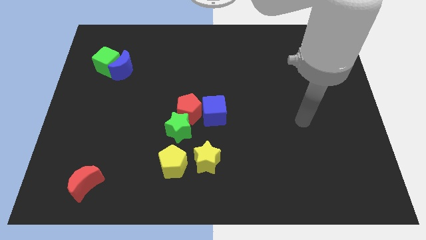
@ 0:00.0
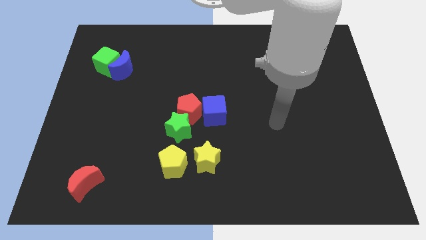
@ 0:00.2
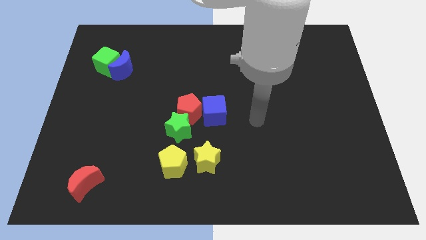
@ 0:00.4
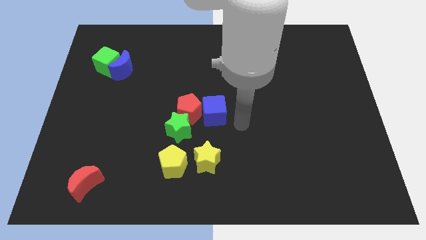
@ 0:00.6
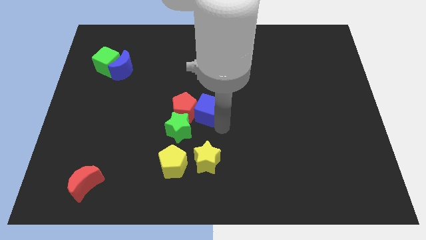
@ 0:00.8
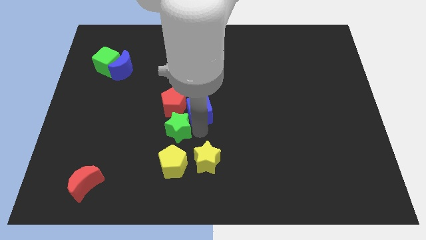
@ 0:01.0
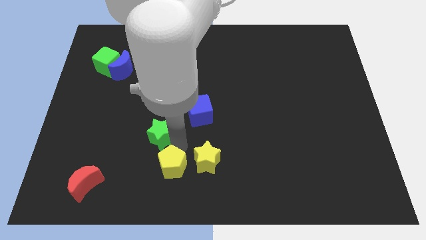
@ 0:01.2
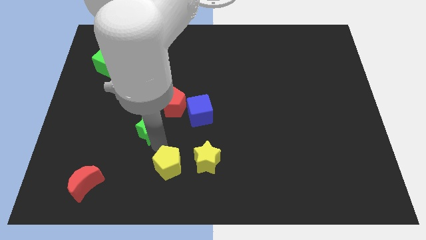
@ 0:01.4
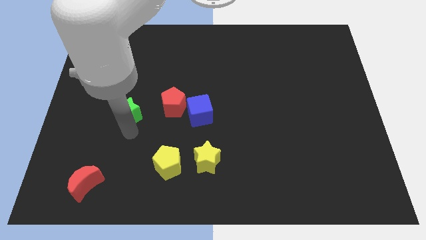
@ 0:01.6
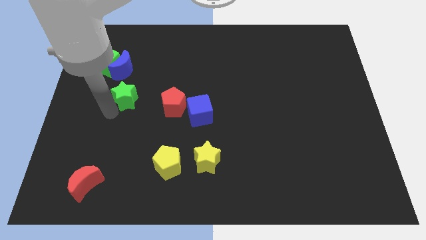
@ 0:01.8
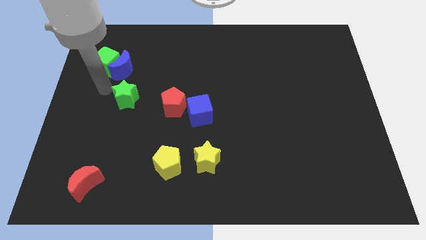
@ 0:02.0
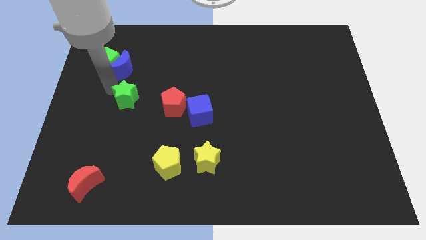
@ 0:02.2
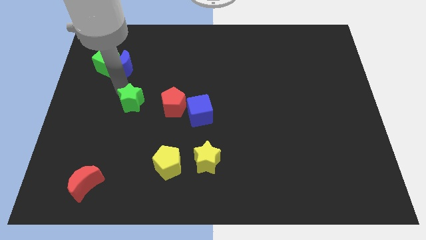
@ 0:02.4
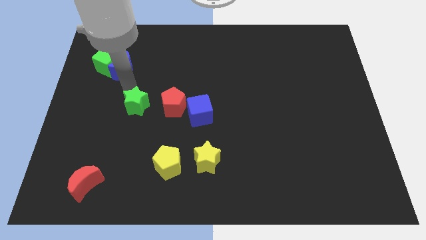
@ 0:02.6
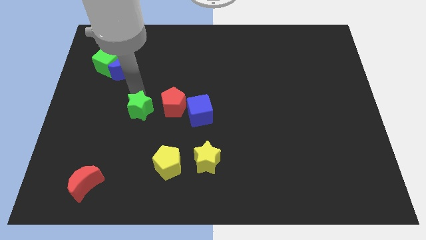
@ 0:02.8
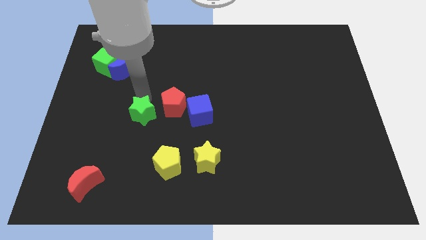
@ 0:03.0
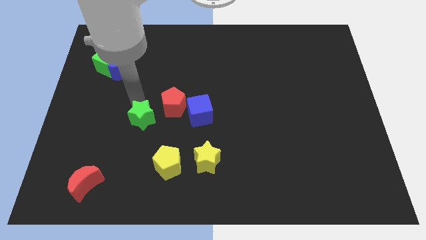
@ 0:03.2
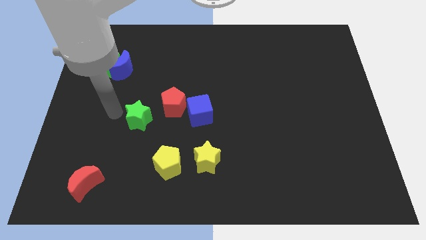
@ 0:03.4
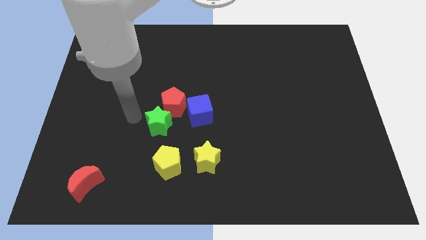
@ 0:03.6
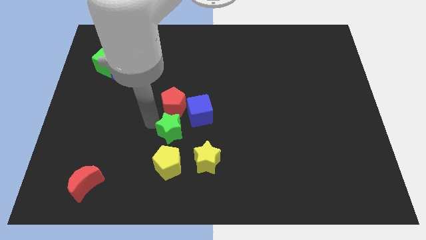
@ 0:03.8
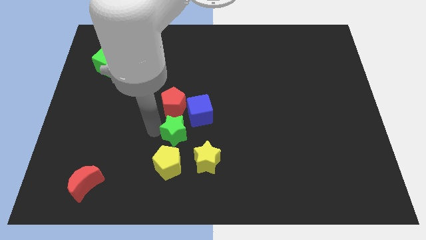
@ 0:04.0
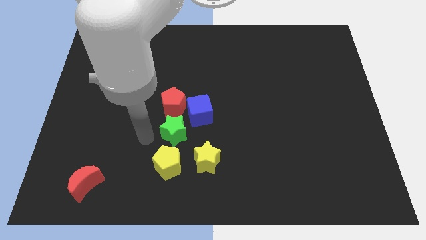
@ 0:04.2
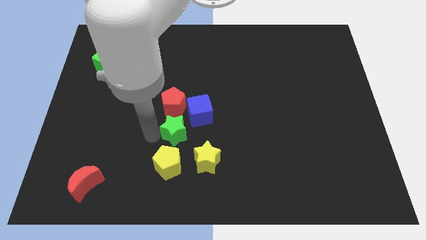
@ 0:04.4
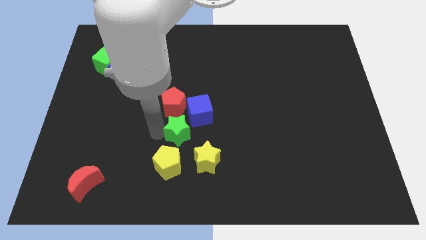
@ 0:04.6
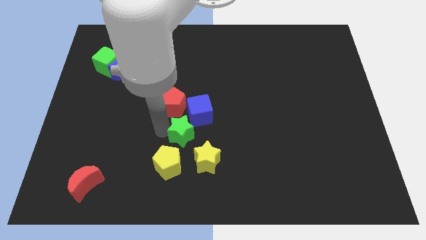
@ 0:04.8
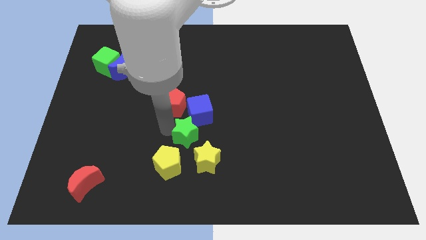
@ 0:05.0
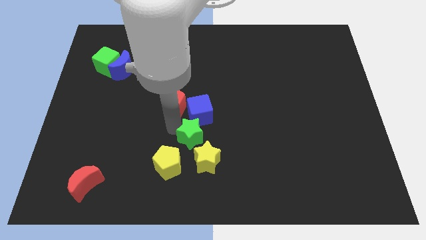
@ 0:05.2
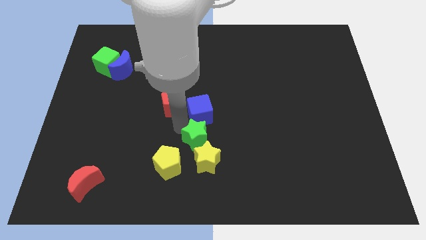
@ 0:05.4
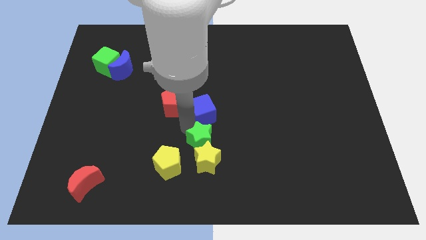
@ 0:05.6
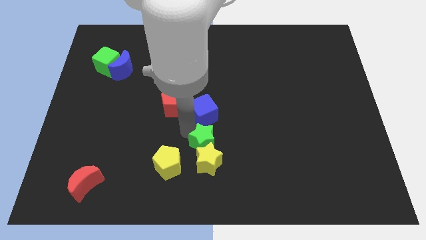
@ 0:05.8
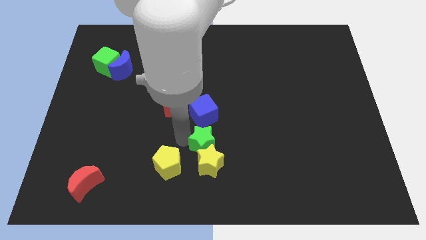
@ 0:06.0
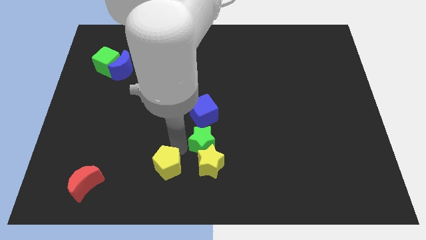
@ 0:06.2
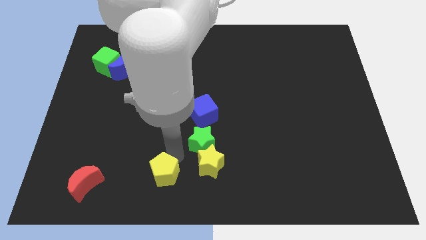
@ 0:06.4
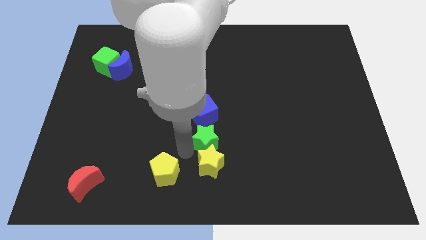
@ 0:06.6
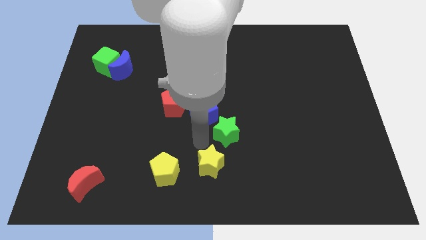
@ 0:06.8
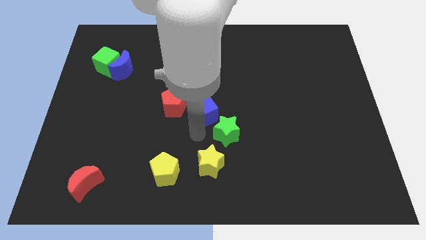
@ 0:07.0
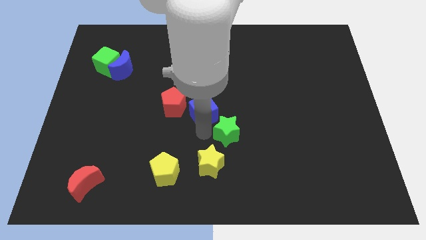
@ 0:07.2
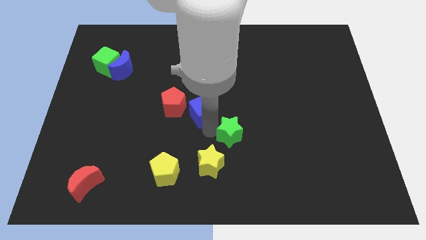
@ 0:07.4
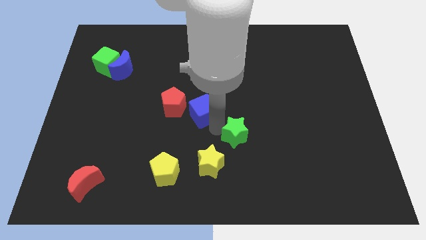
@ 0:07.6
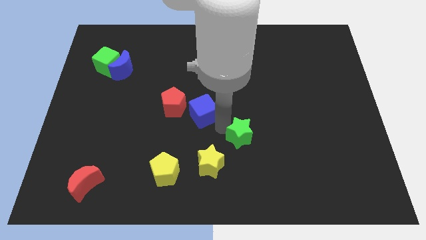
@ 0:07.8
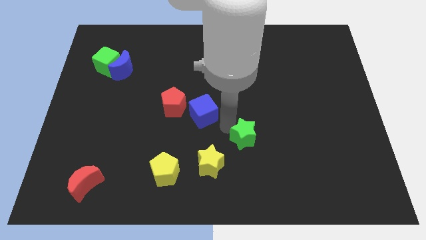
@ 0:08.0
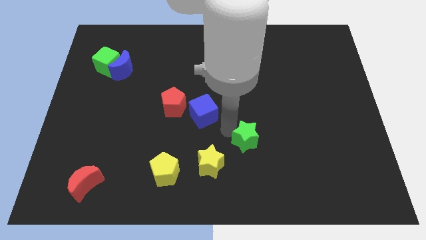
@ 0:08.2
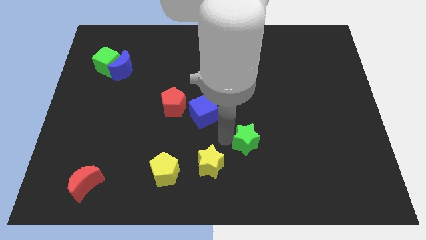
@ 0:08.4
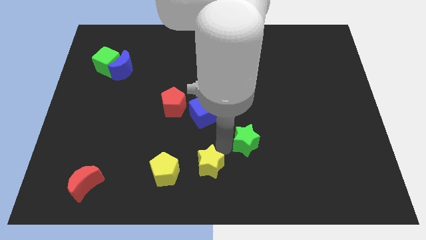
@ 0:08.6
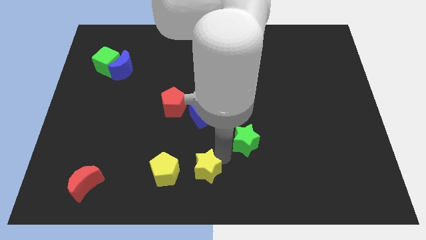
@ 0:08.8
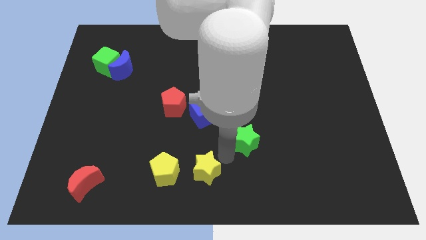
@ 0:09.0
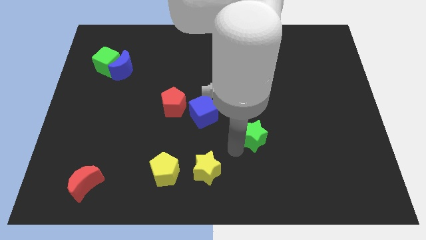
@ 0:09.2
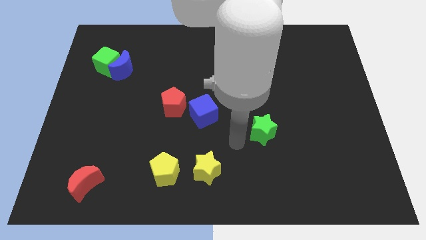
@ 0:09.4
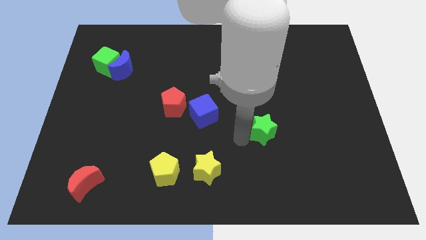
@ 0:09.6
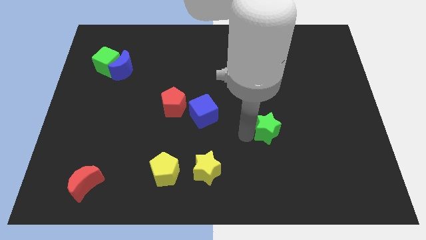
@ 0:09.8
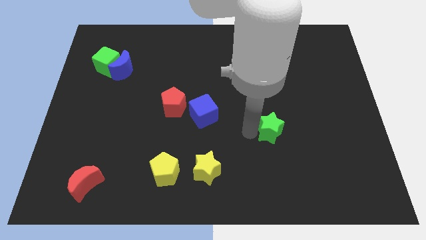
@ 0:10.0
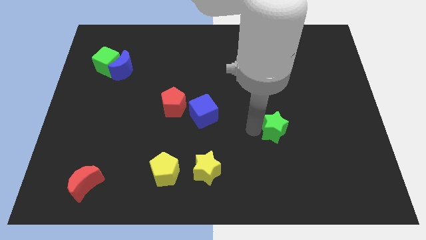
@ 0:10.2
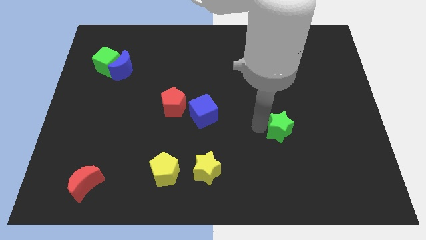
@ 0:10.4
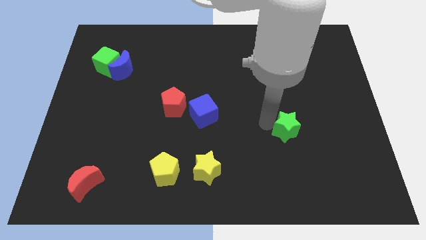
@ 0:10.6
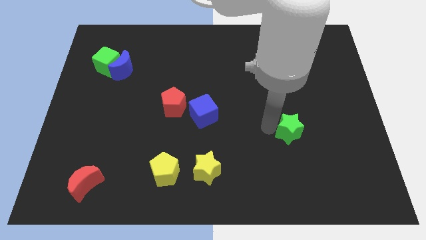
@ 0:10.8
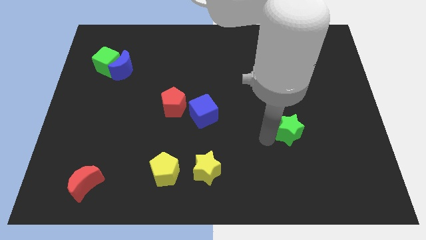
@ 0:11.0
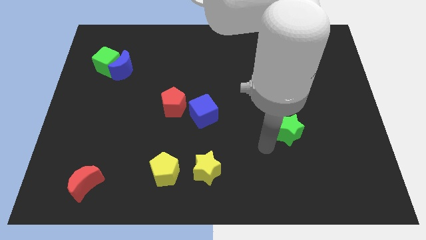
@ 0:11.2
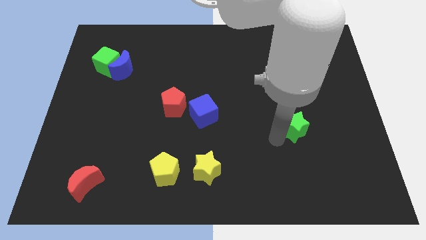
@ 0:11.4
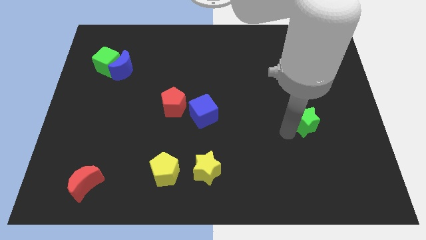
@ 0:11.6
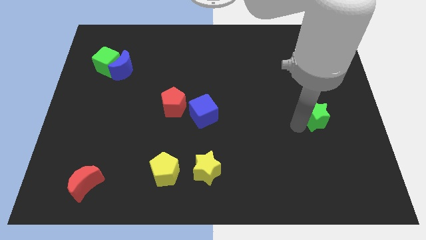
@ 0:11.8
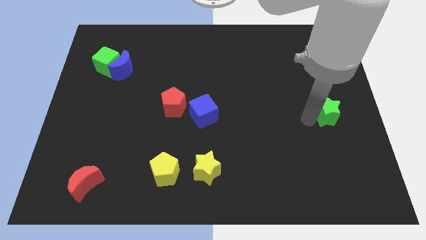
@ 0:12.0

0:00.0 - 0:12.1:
move the green star to the right side
